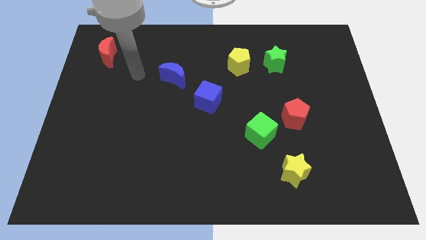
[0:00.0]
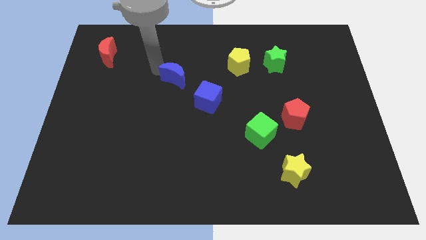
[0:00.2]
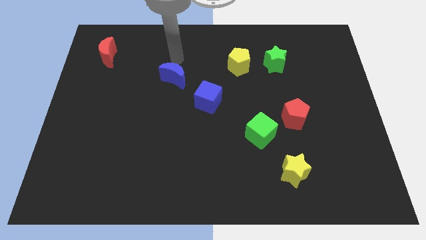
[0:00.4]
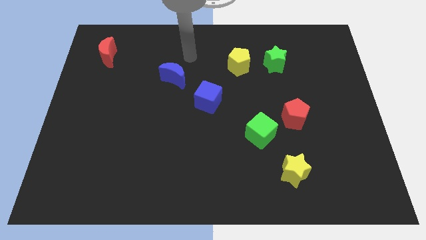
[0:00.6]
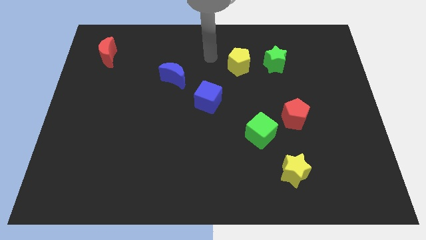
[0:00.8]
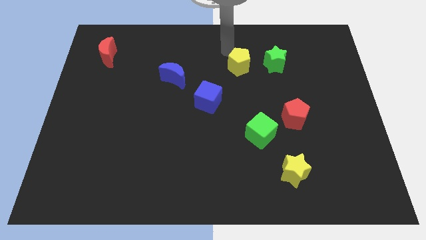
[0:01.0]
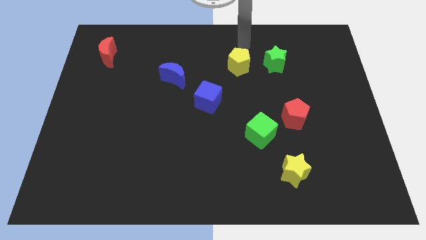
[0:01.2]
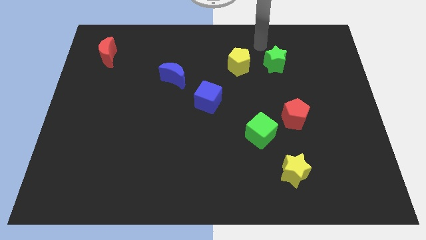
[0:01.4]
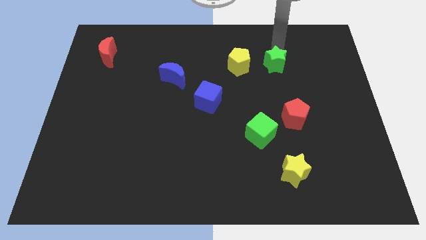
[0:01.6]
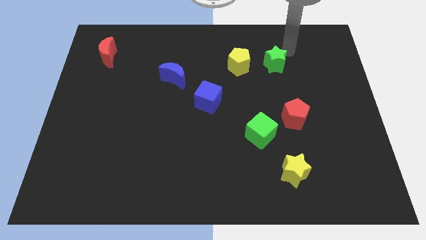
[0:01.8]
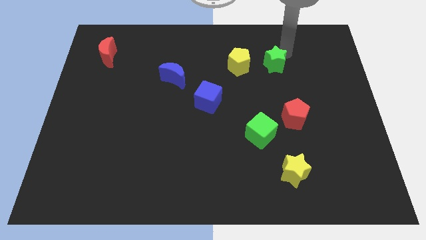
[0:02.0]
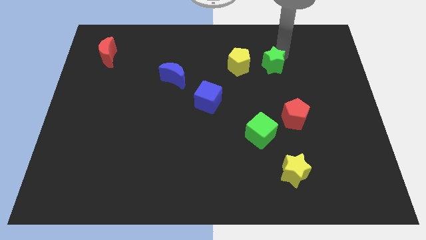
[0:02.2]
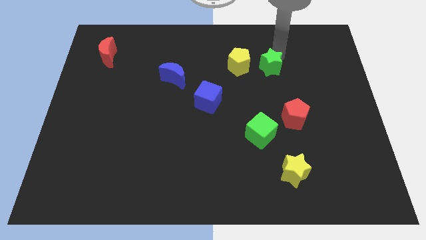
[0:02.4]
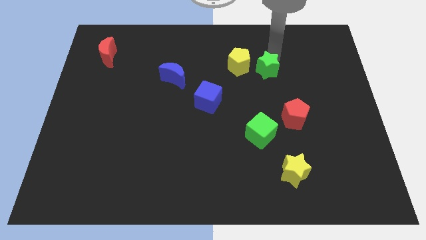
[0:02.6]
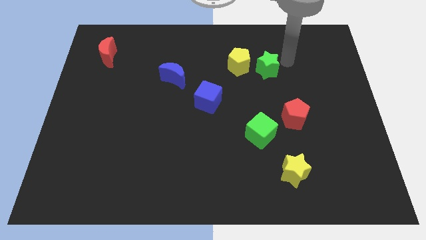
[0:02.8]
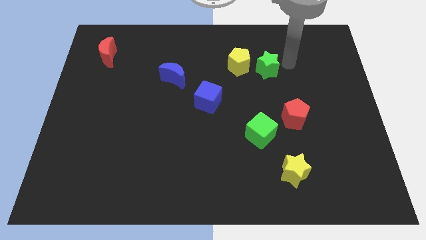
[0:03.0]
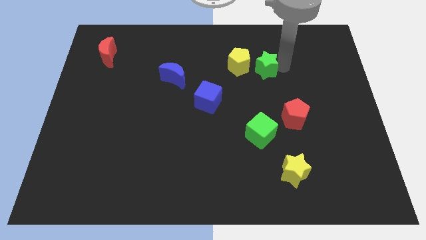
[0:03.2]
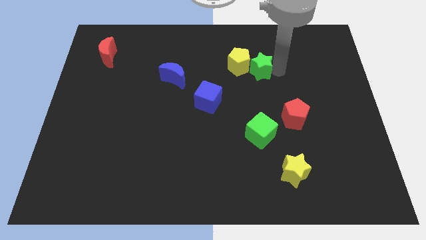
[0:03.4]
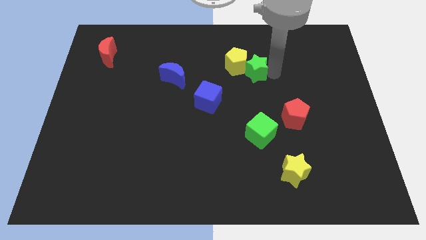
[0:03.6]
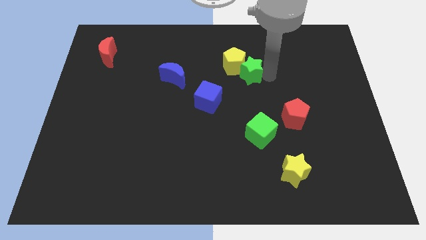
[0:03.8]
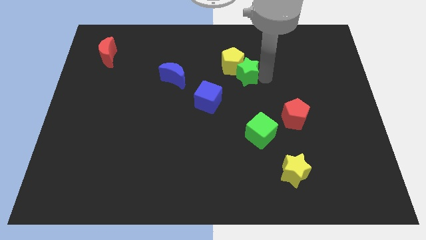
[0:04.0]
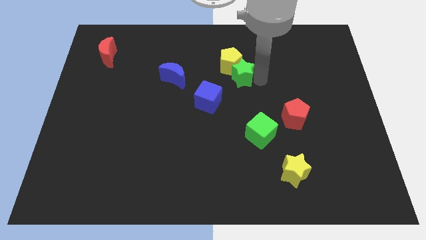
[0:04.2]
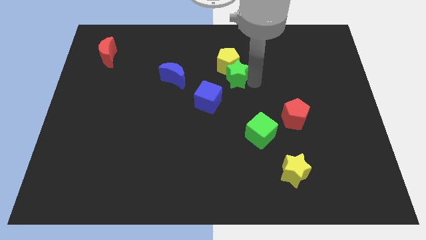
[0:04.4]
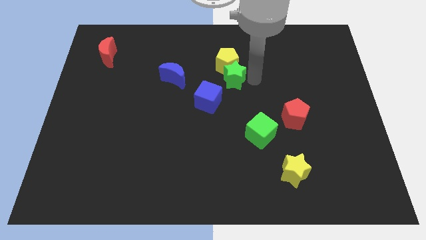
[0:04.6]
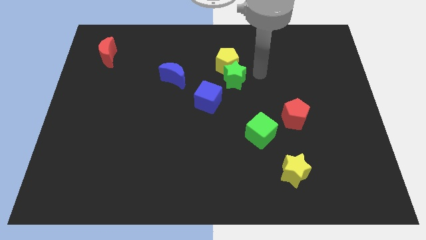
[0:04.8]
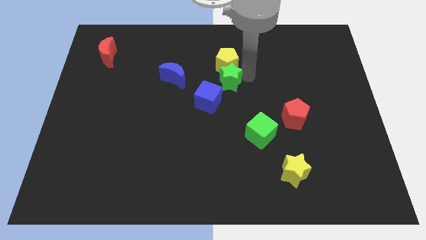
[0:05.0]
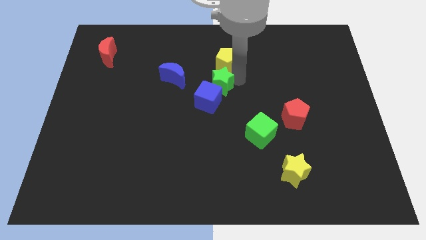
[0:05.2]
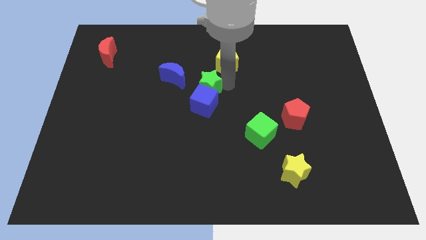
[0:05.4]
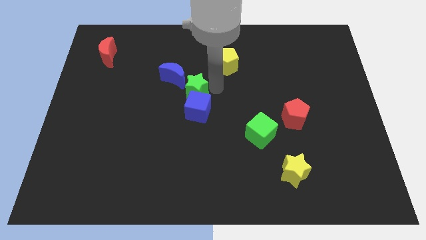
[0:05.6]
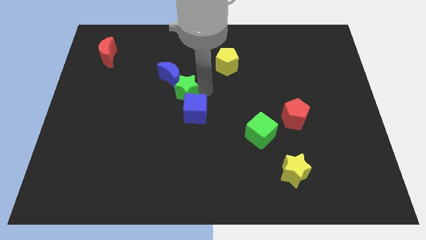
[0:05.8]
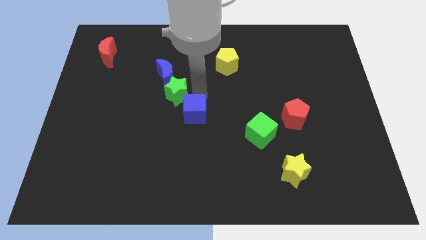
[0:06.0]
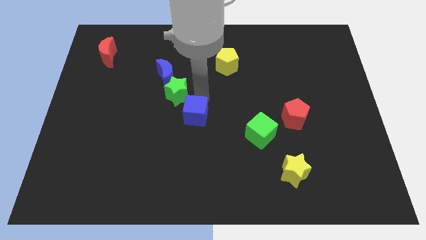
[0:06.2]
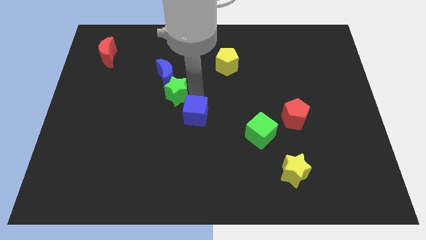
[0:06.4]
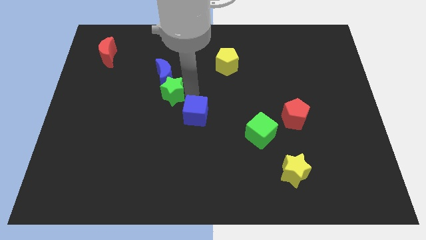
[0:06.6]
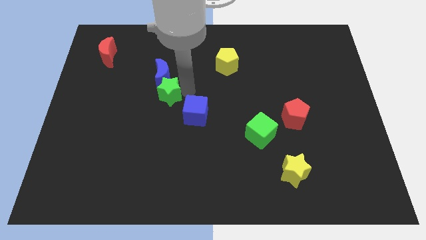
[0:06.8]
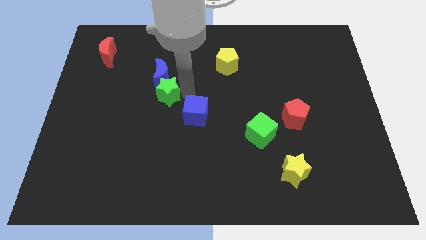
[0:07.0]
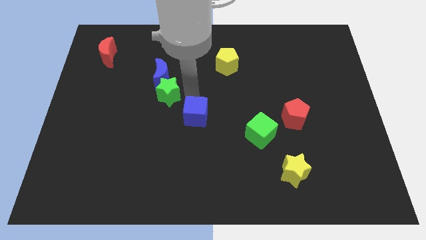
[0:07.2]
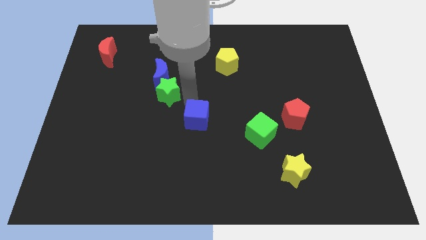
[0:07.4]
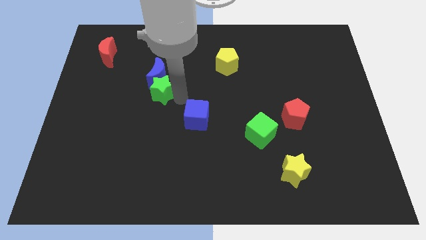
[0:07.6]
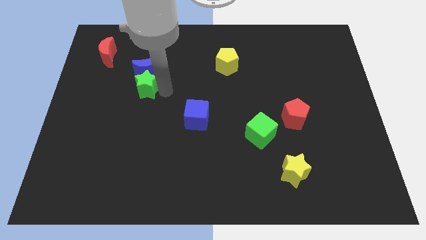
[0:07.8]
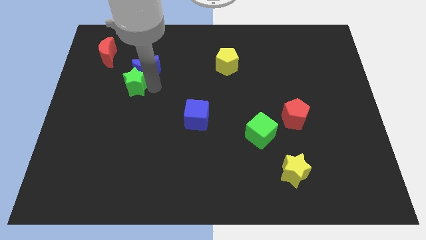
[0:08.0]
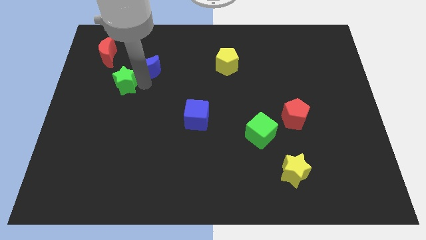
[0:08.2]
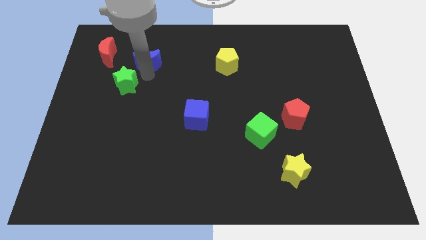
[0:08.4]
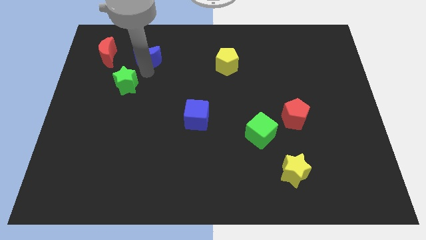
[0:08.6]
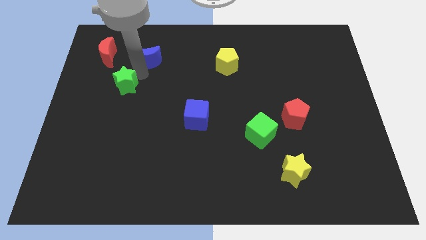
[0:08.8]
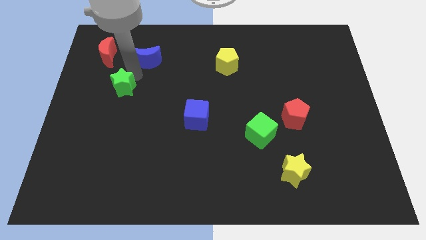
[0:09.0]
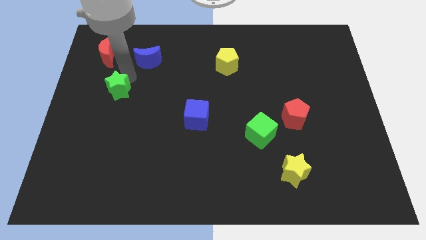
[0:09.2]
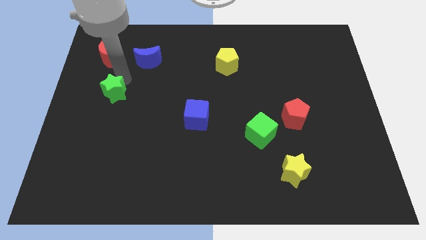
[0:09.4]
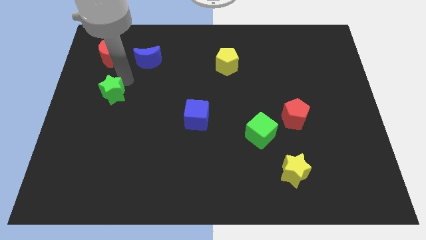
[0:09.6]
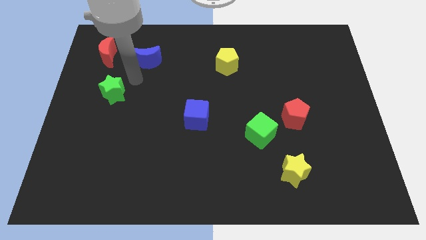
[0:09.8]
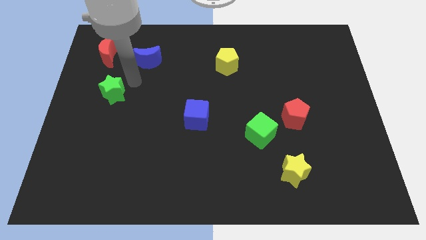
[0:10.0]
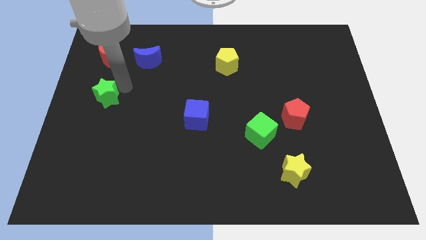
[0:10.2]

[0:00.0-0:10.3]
slide the green star to the left side of the board

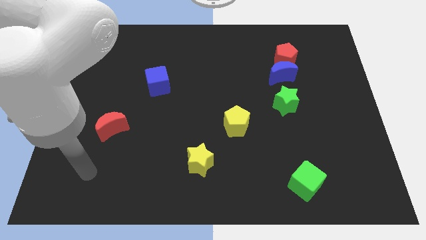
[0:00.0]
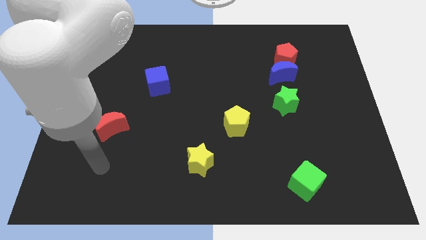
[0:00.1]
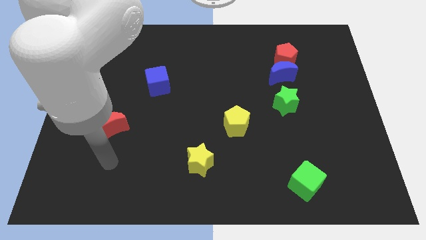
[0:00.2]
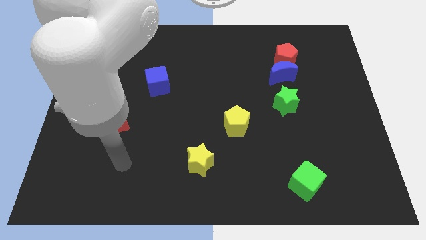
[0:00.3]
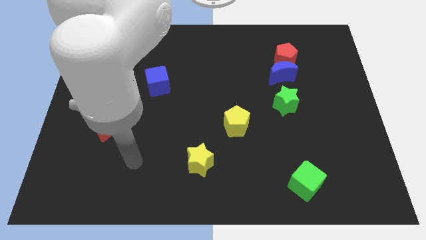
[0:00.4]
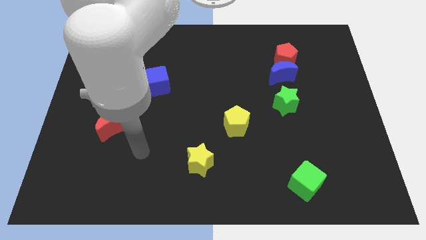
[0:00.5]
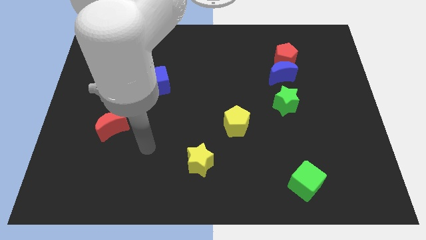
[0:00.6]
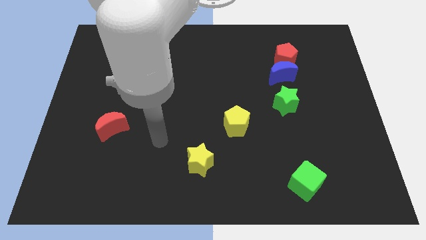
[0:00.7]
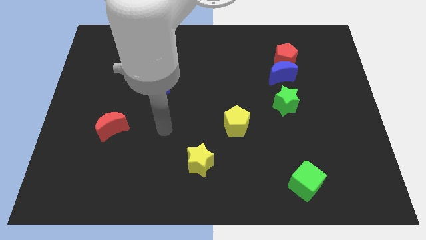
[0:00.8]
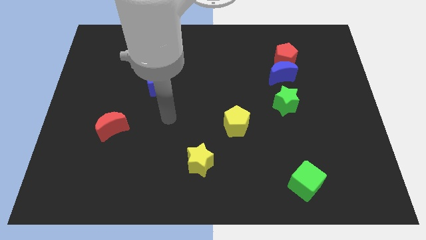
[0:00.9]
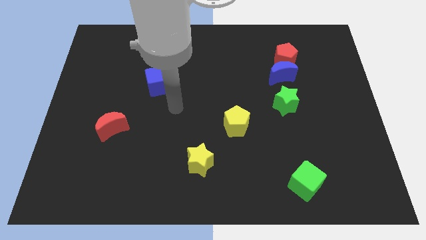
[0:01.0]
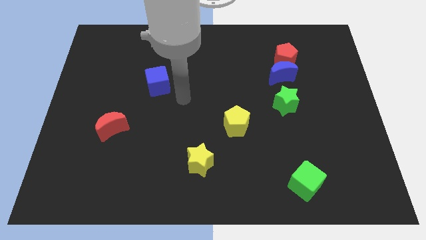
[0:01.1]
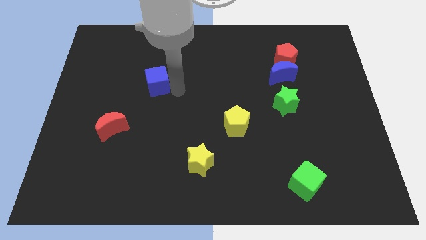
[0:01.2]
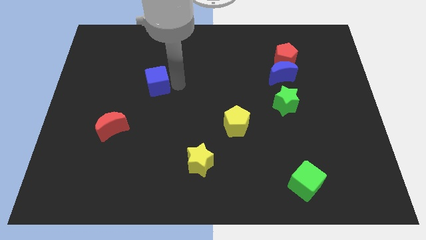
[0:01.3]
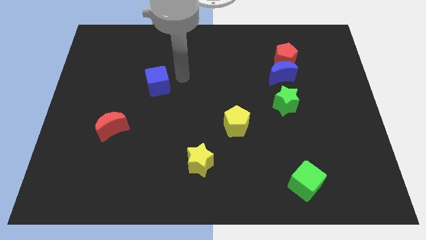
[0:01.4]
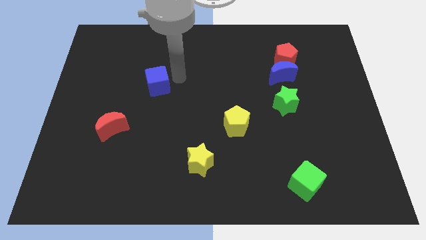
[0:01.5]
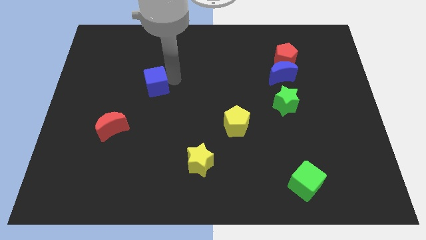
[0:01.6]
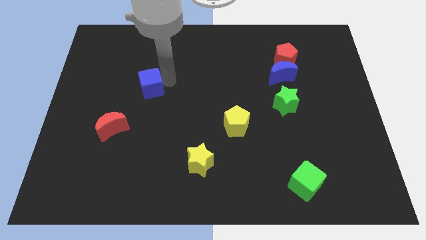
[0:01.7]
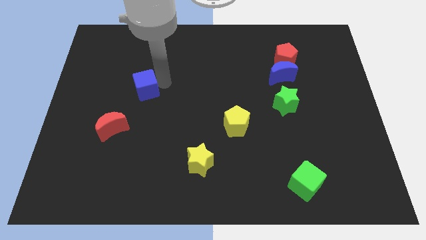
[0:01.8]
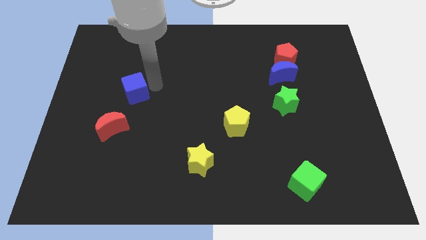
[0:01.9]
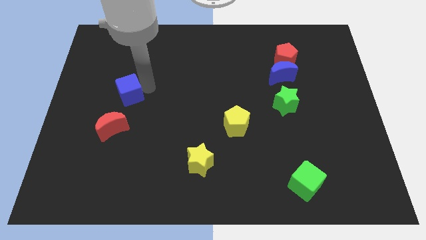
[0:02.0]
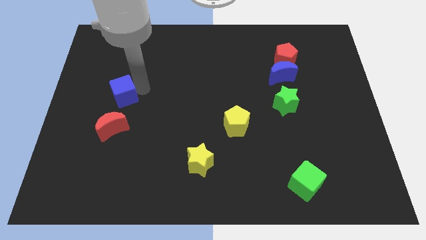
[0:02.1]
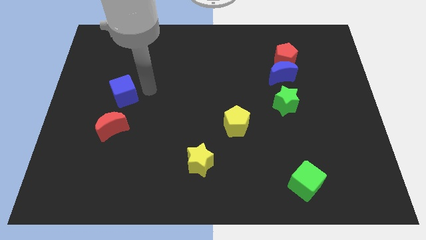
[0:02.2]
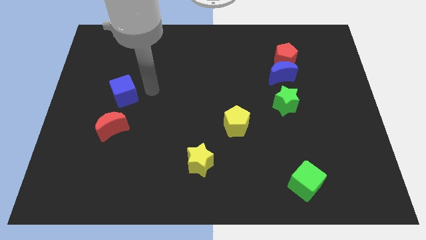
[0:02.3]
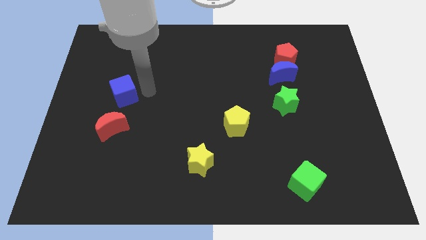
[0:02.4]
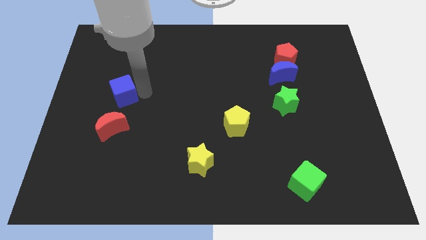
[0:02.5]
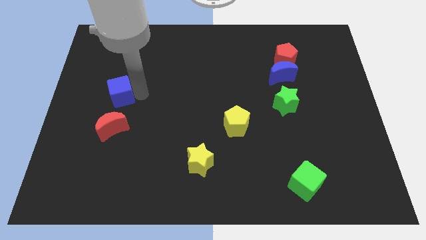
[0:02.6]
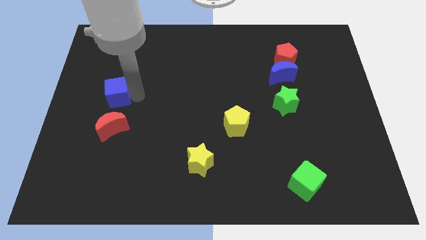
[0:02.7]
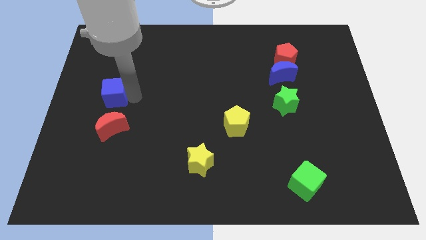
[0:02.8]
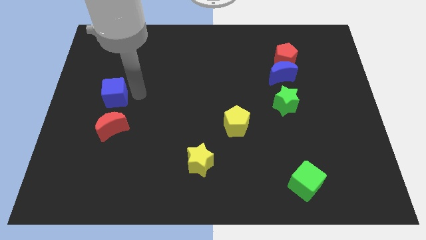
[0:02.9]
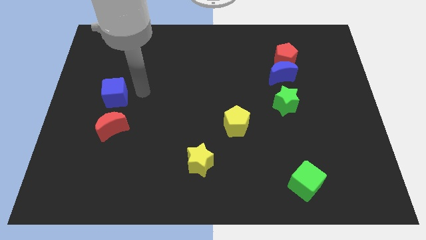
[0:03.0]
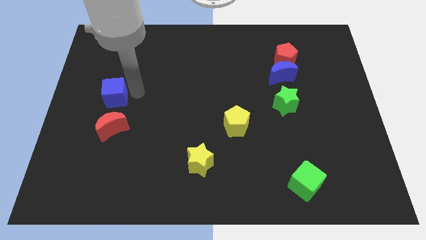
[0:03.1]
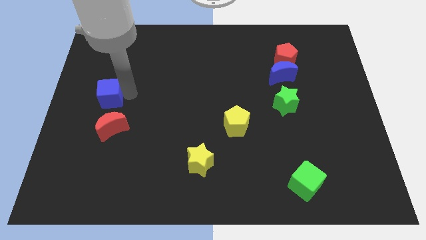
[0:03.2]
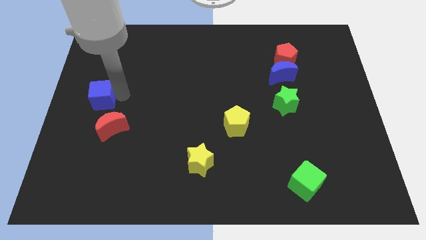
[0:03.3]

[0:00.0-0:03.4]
move the blue cube to the center left
